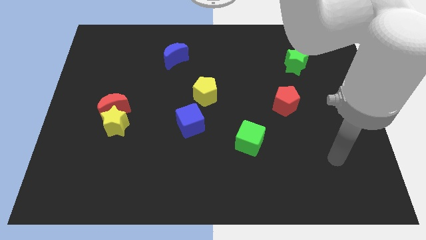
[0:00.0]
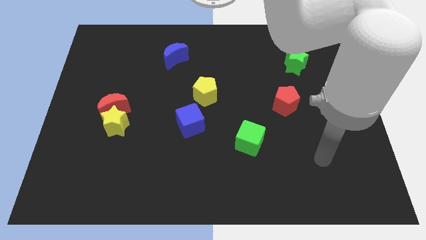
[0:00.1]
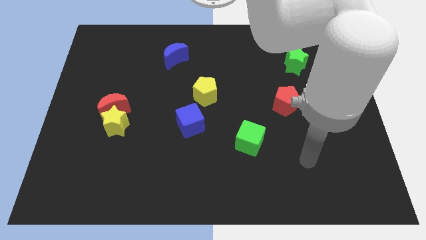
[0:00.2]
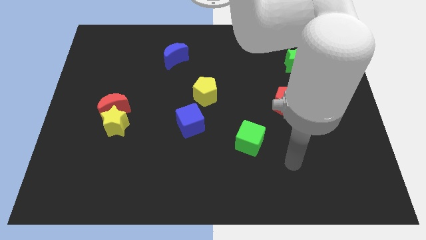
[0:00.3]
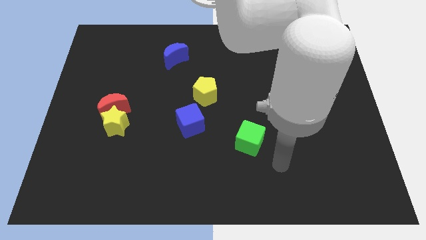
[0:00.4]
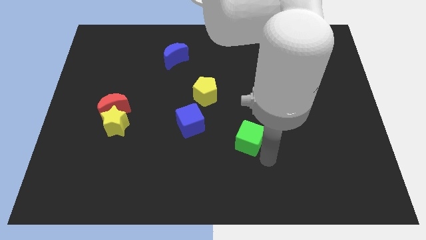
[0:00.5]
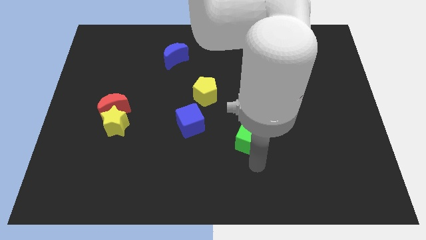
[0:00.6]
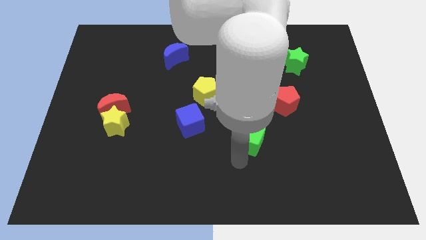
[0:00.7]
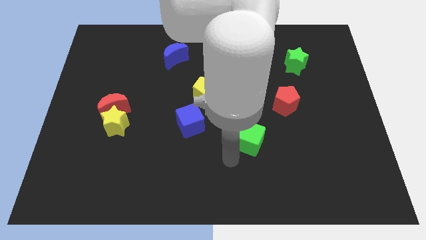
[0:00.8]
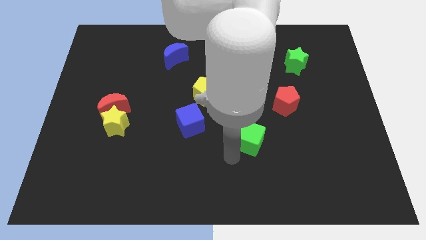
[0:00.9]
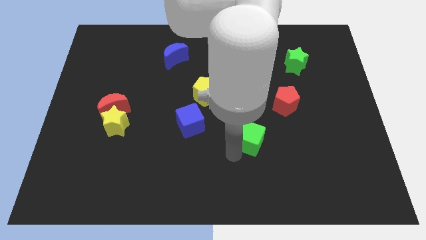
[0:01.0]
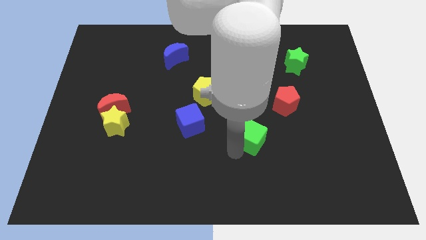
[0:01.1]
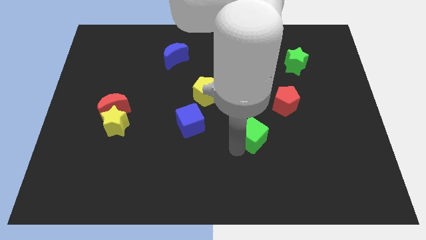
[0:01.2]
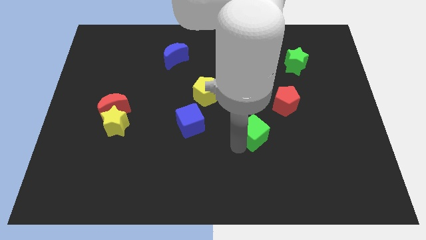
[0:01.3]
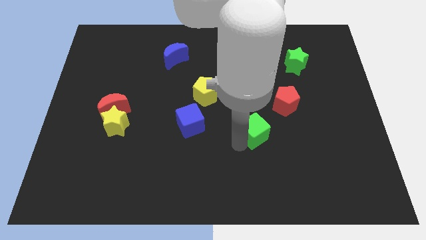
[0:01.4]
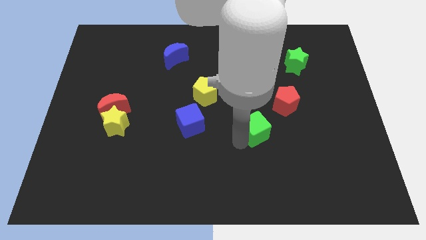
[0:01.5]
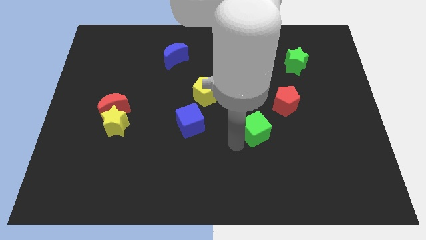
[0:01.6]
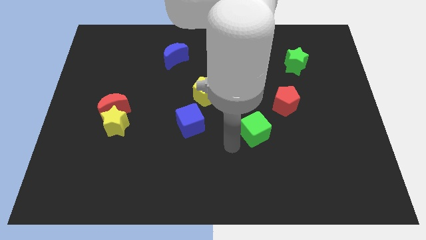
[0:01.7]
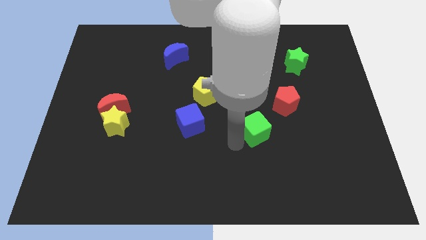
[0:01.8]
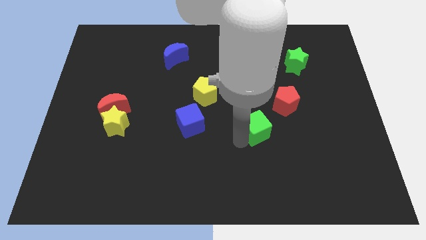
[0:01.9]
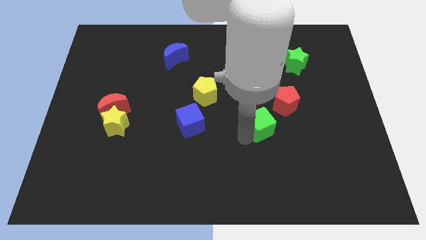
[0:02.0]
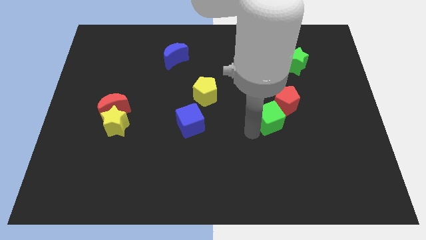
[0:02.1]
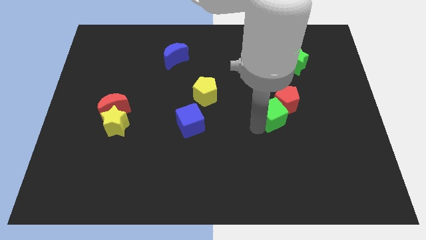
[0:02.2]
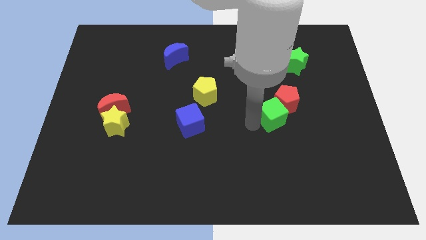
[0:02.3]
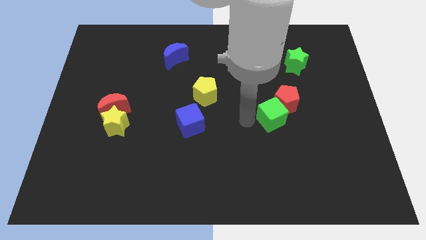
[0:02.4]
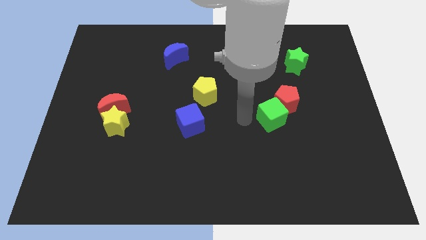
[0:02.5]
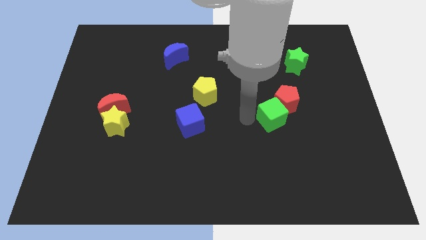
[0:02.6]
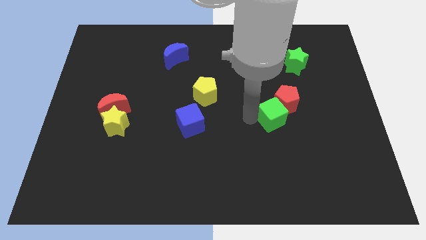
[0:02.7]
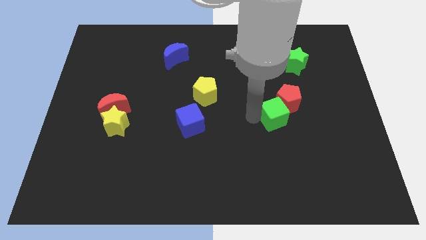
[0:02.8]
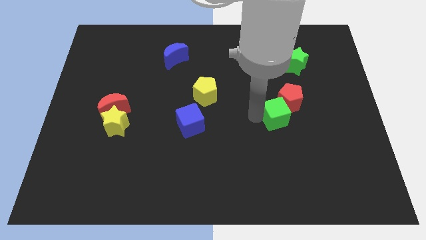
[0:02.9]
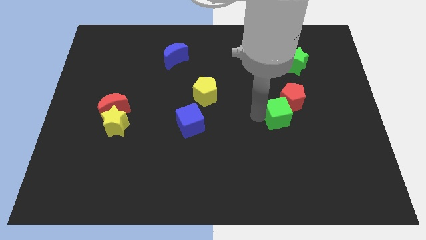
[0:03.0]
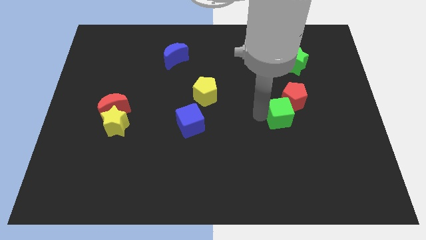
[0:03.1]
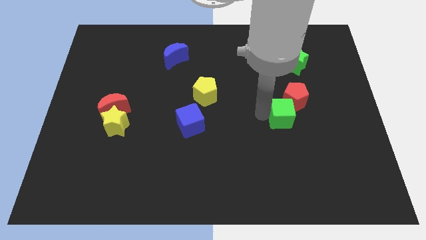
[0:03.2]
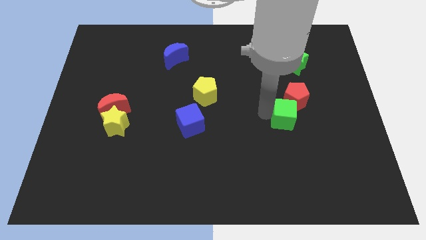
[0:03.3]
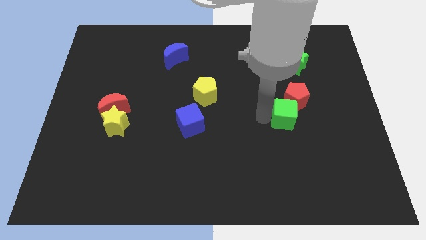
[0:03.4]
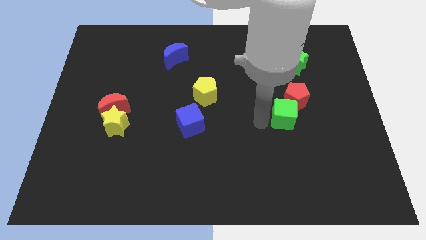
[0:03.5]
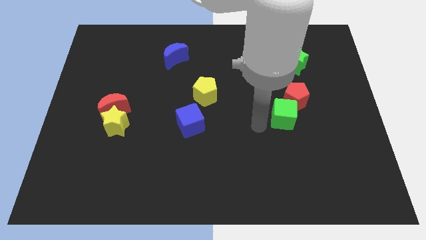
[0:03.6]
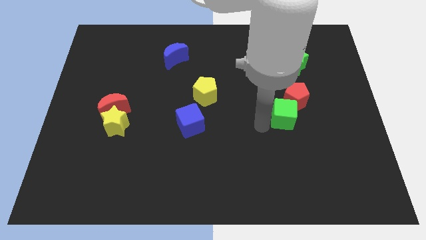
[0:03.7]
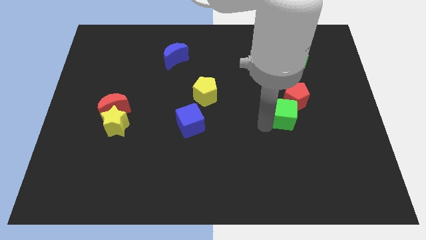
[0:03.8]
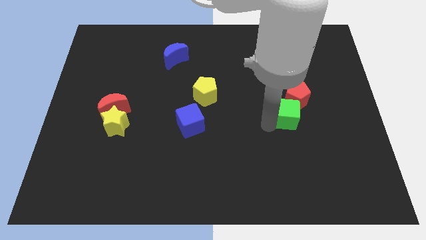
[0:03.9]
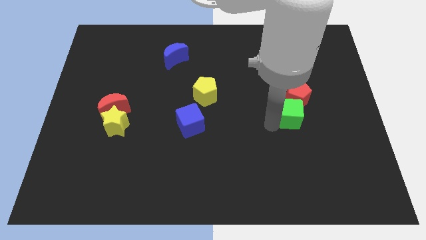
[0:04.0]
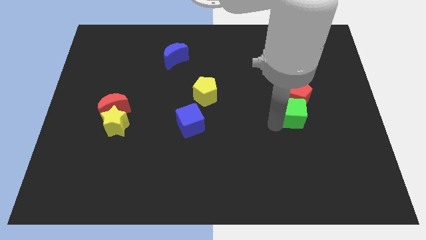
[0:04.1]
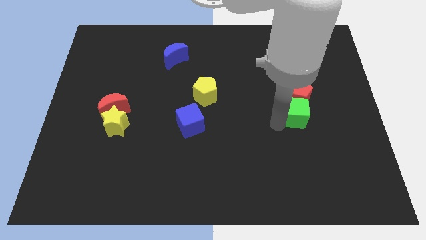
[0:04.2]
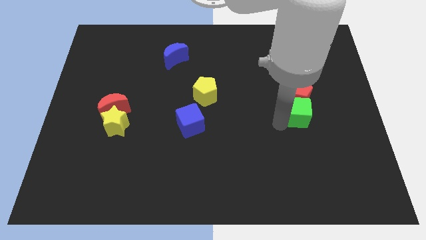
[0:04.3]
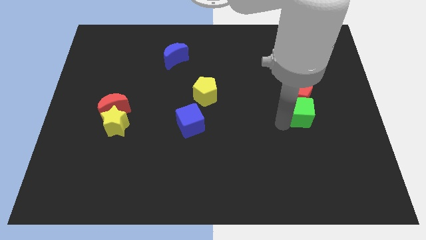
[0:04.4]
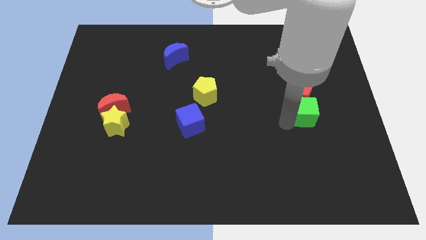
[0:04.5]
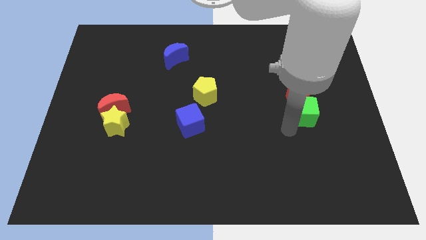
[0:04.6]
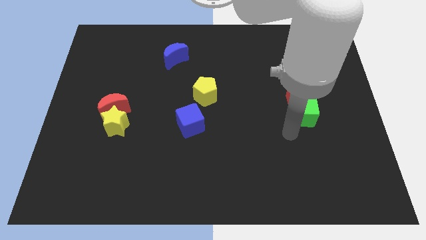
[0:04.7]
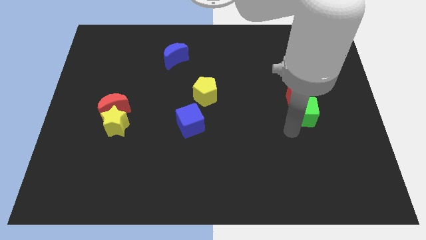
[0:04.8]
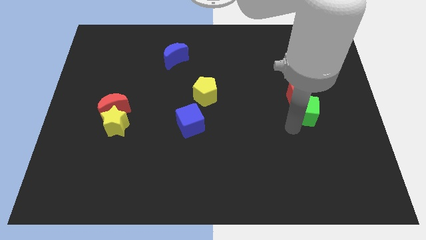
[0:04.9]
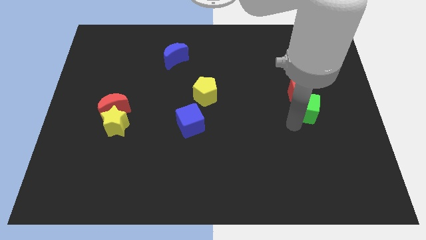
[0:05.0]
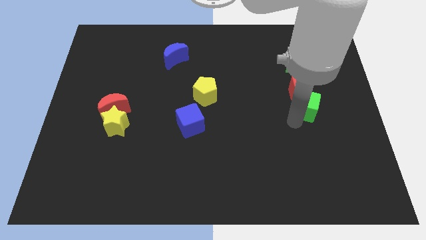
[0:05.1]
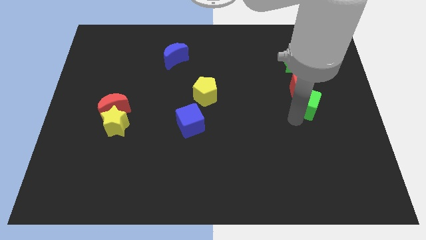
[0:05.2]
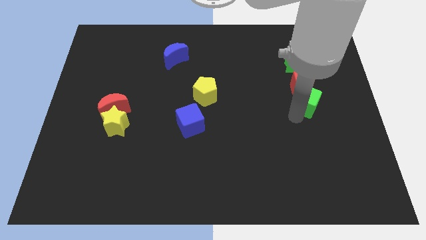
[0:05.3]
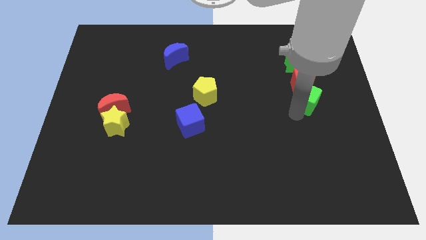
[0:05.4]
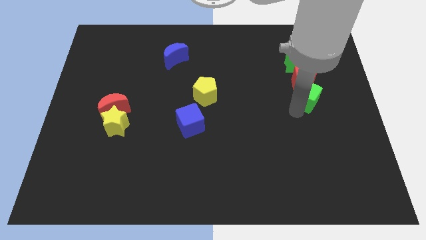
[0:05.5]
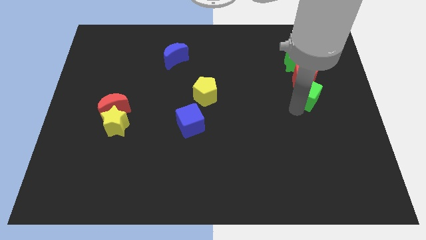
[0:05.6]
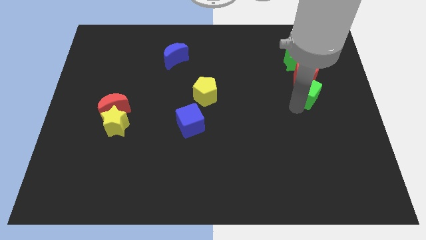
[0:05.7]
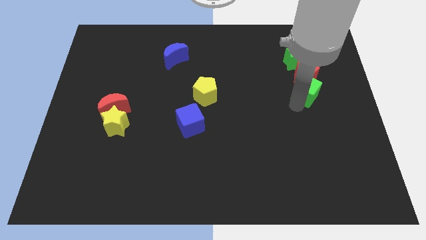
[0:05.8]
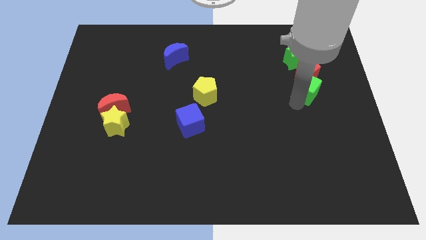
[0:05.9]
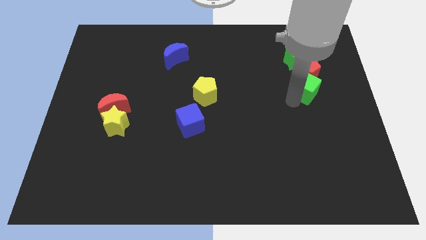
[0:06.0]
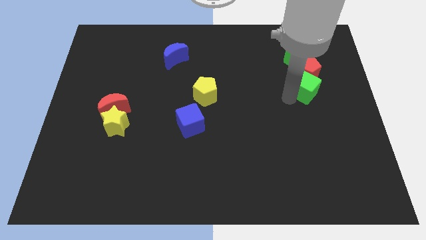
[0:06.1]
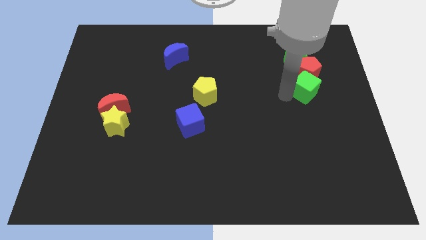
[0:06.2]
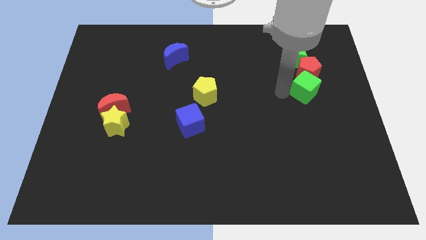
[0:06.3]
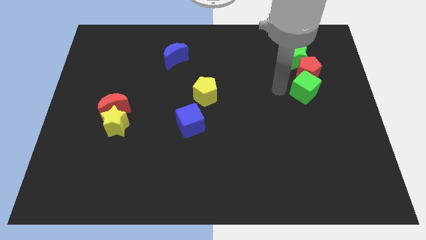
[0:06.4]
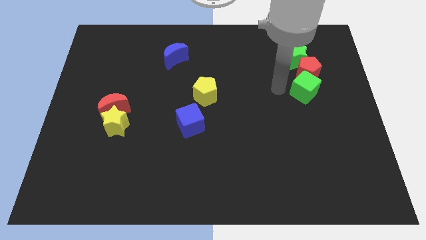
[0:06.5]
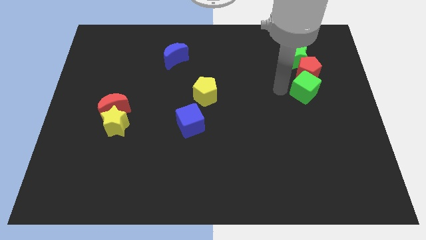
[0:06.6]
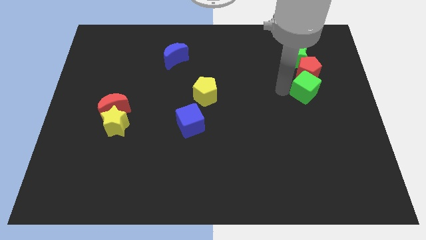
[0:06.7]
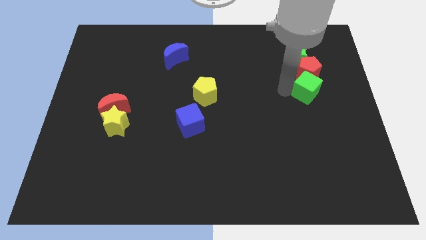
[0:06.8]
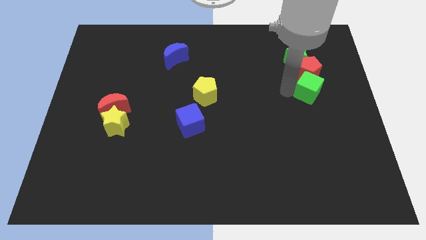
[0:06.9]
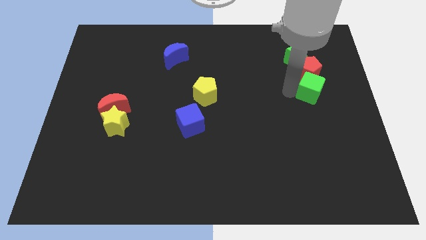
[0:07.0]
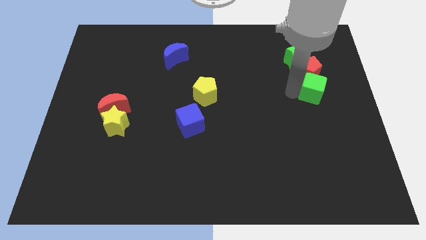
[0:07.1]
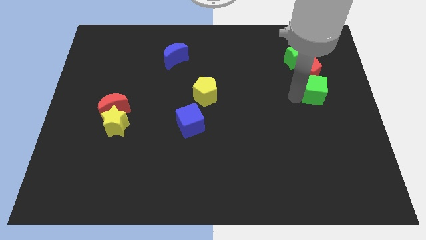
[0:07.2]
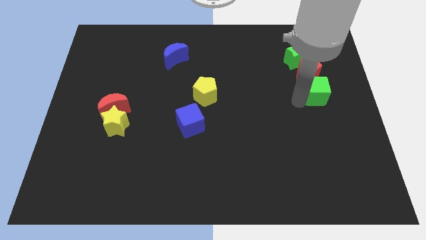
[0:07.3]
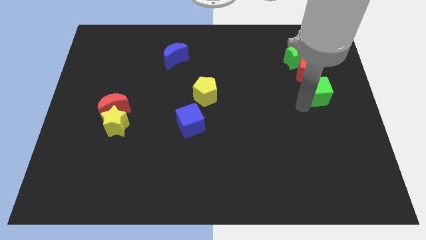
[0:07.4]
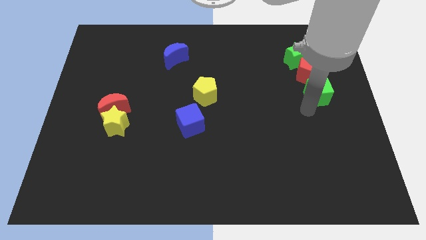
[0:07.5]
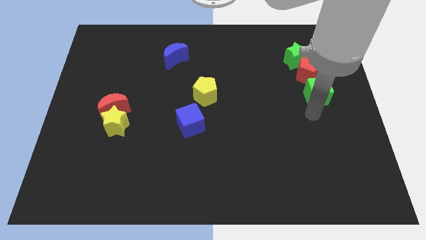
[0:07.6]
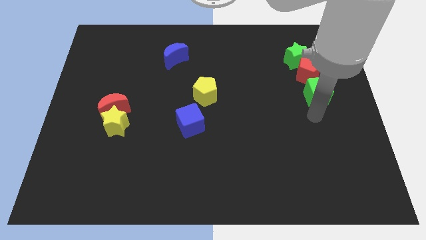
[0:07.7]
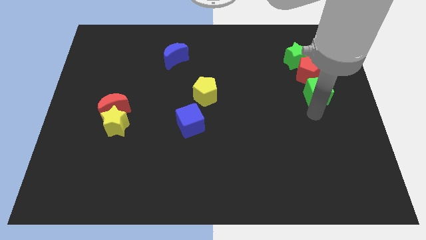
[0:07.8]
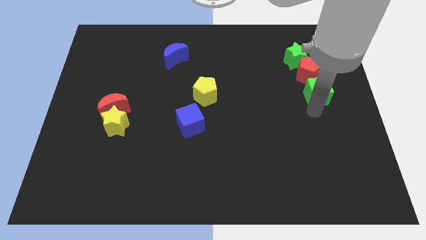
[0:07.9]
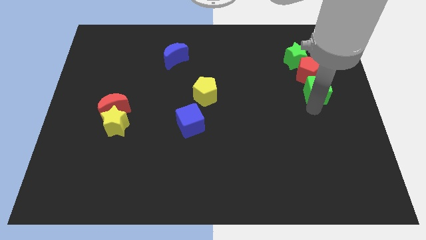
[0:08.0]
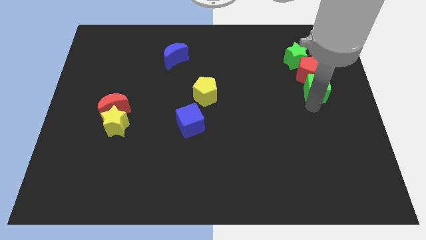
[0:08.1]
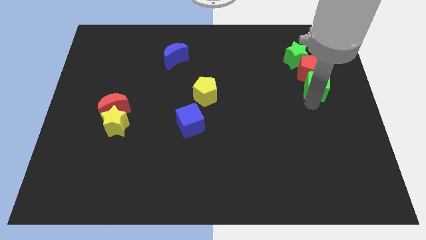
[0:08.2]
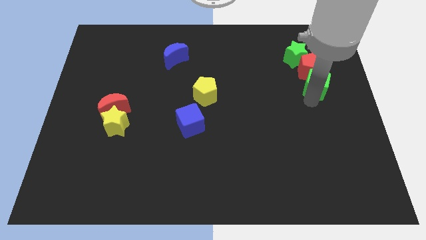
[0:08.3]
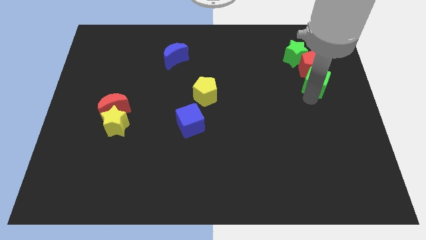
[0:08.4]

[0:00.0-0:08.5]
move the green cube to the bottom right side of the green star
